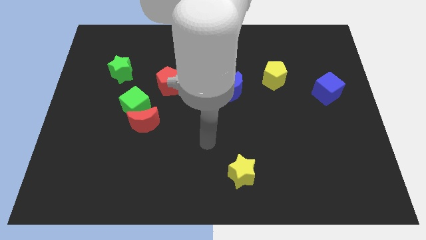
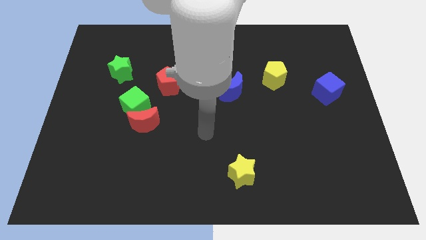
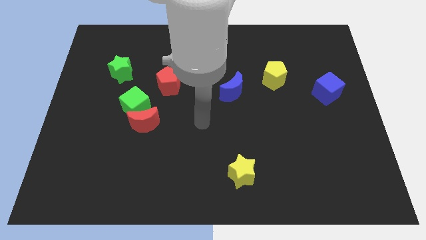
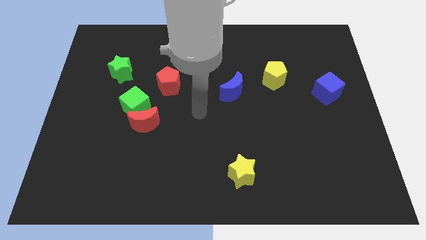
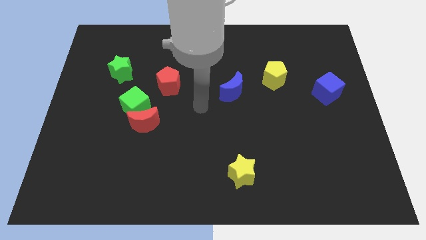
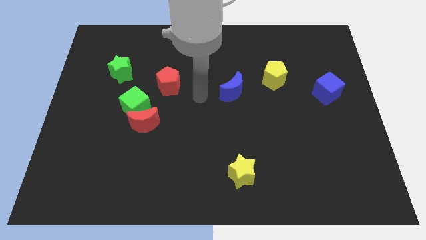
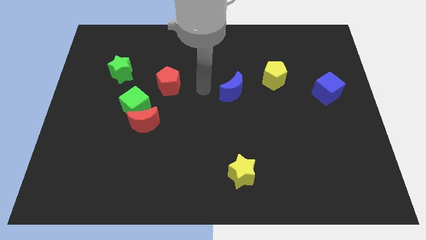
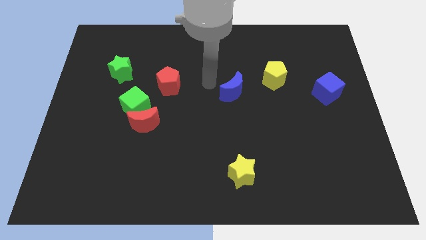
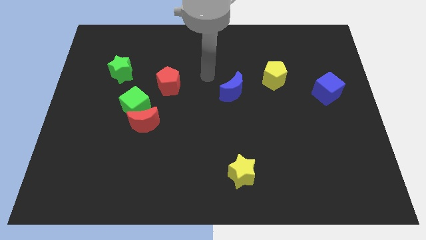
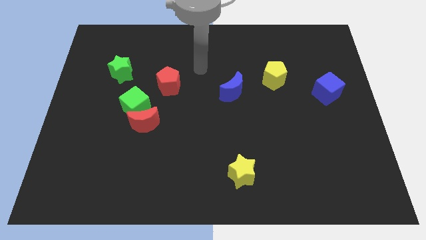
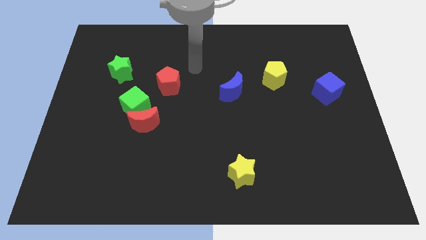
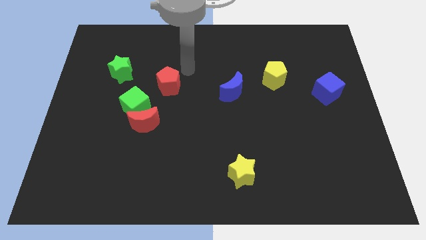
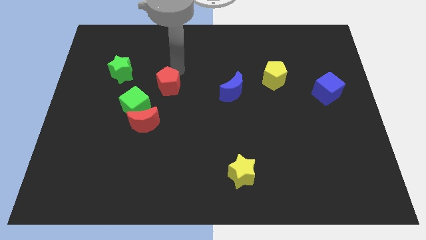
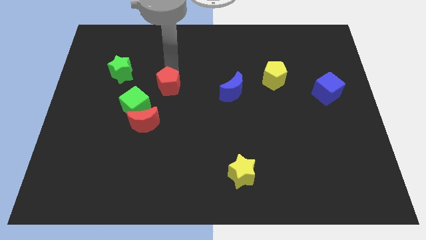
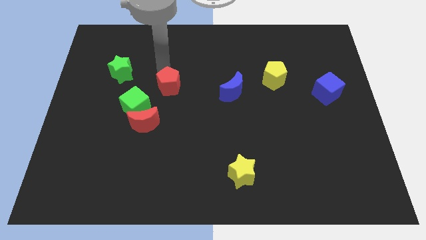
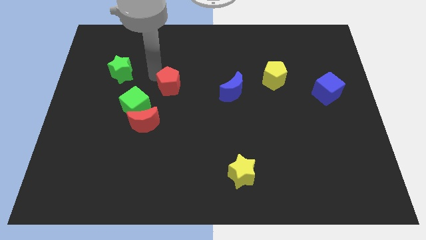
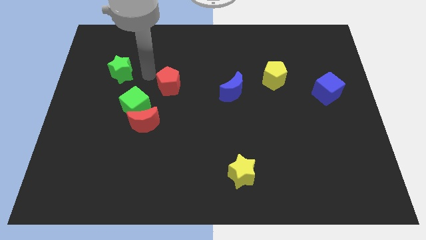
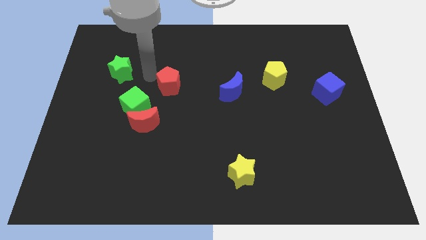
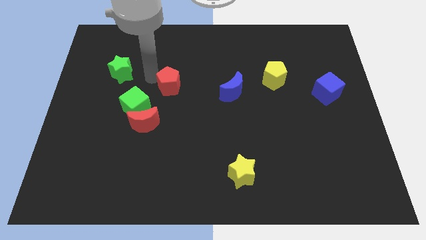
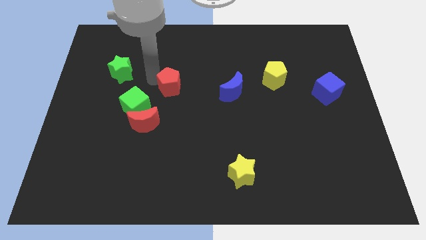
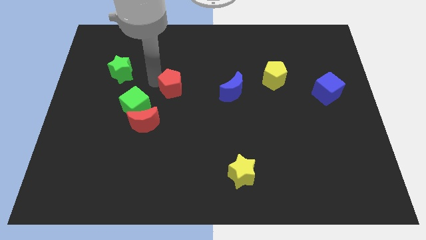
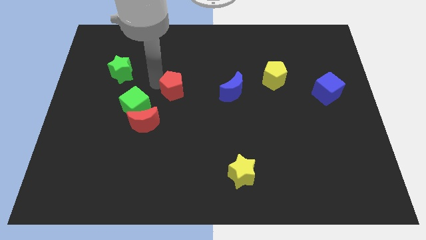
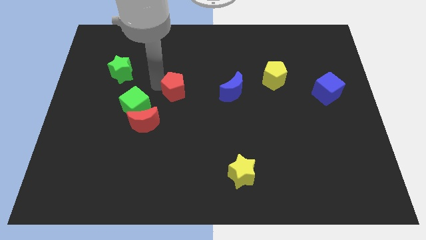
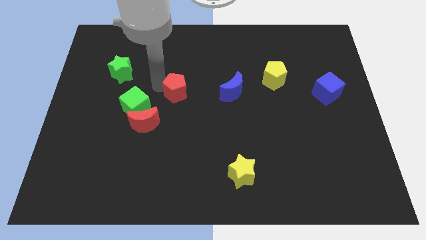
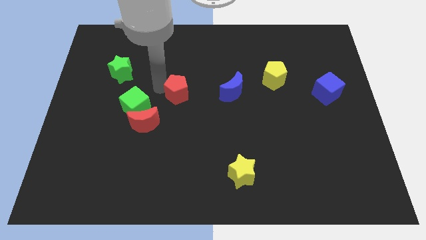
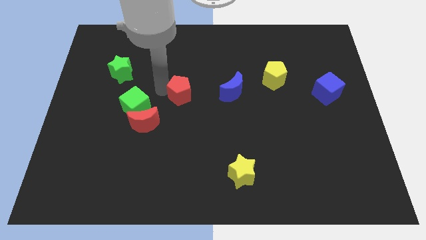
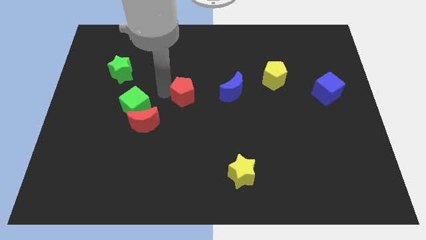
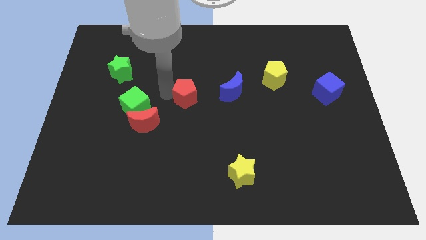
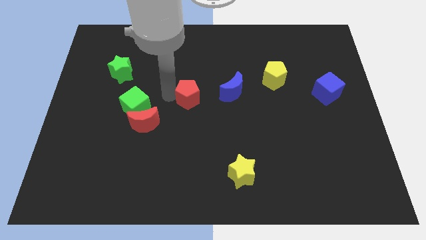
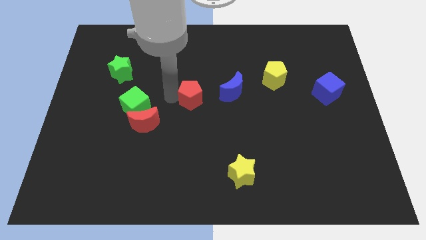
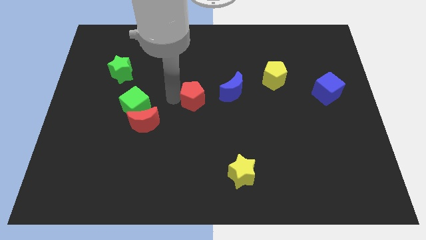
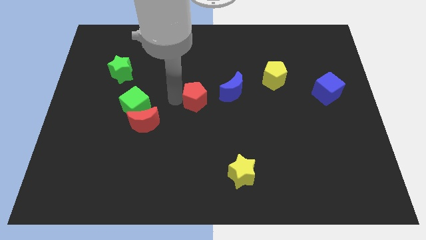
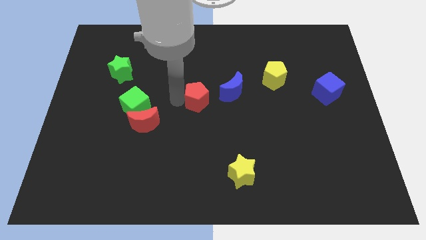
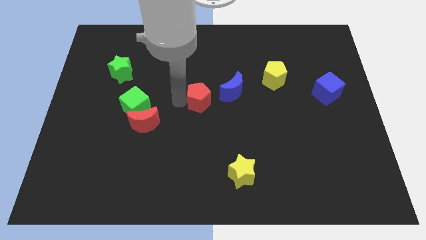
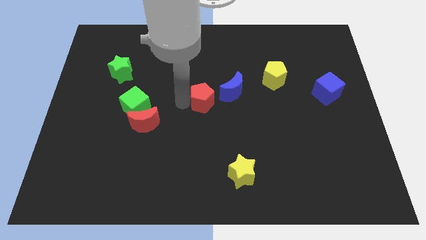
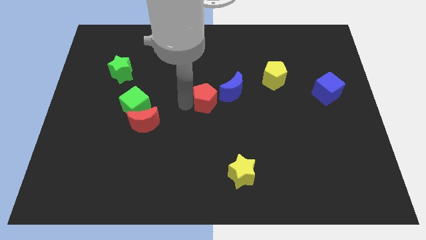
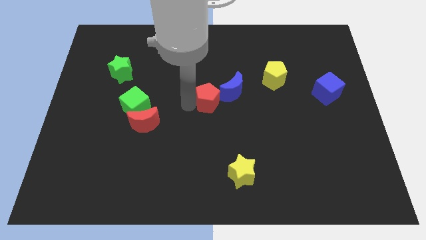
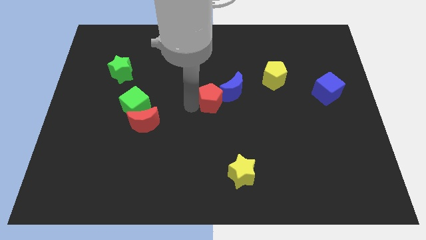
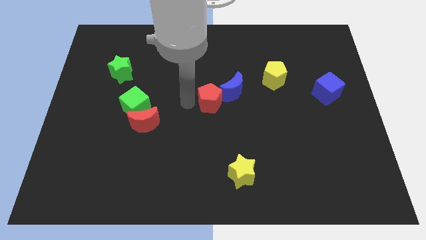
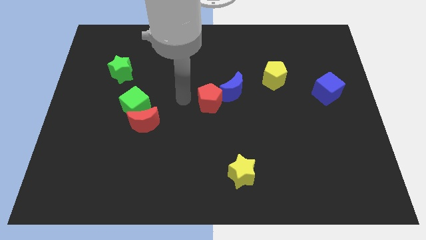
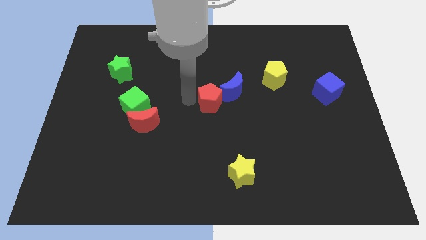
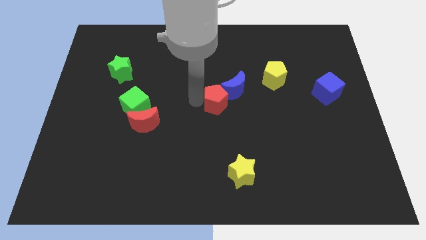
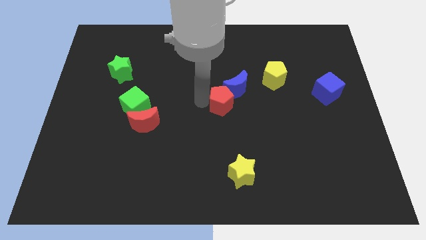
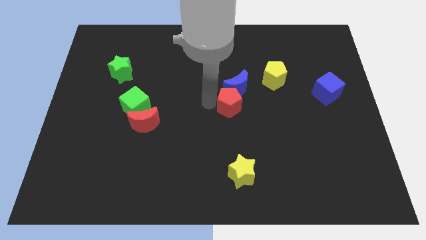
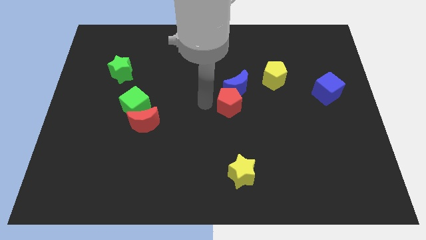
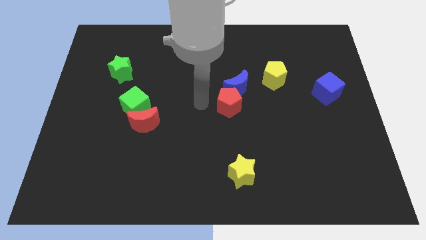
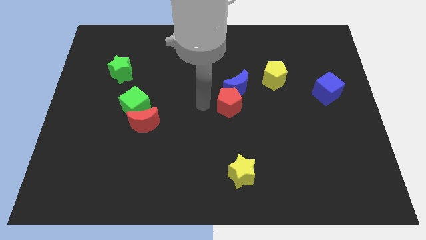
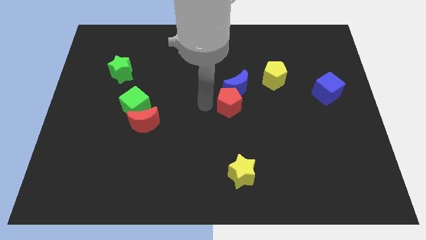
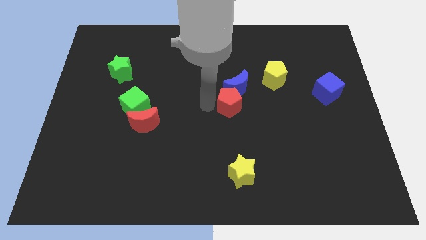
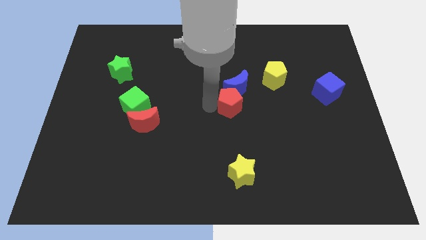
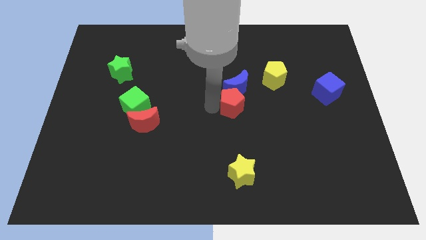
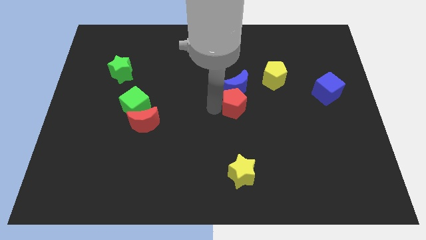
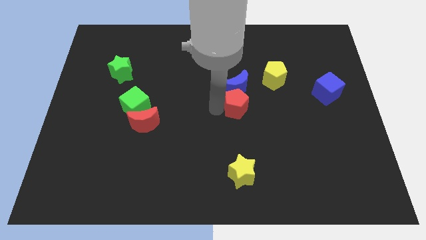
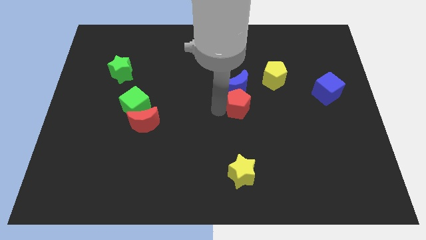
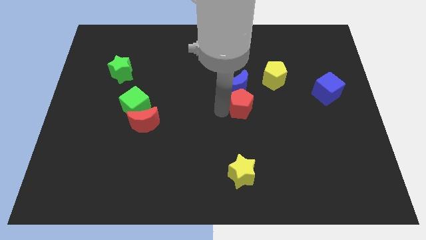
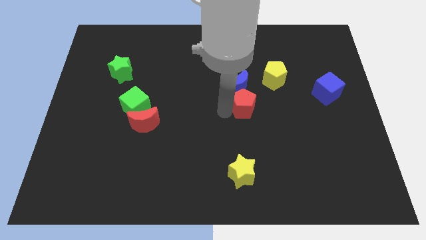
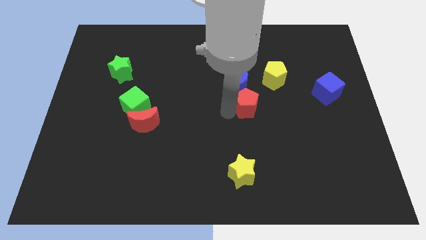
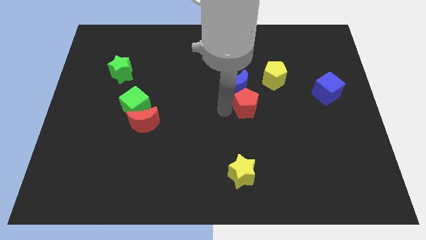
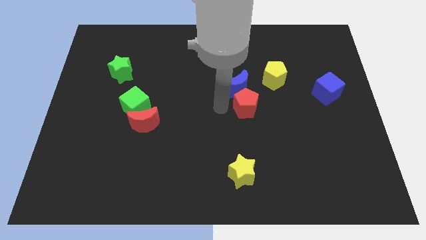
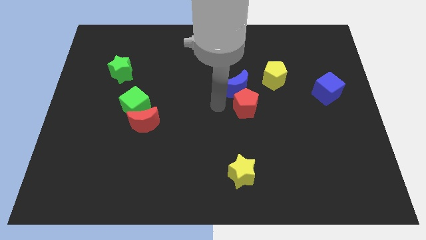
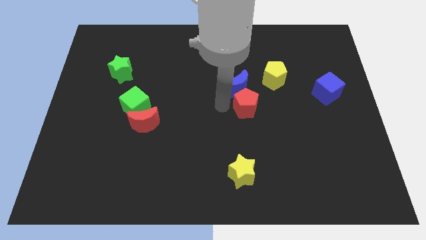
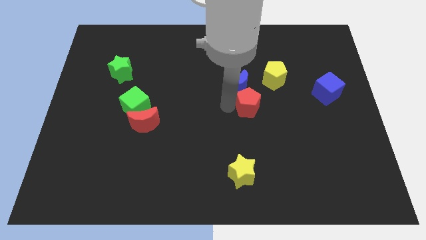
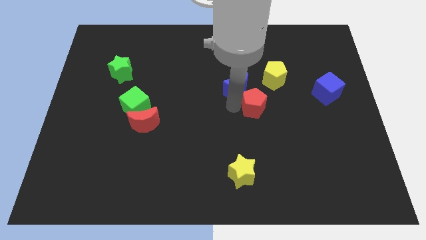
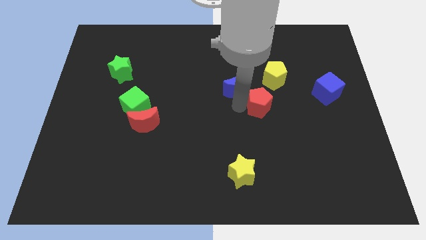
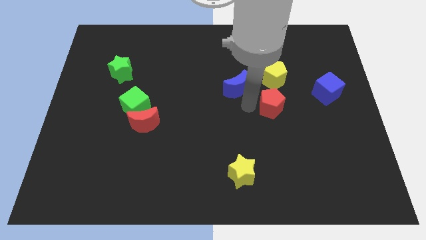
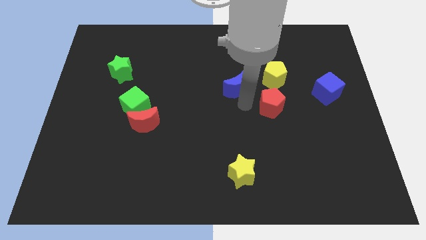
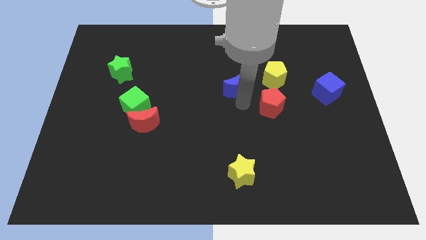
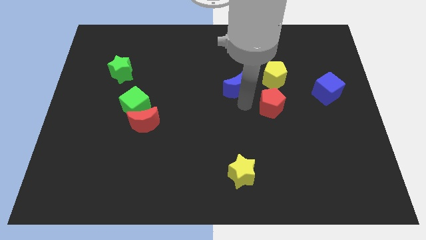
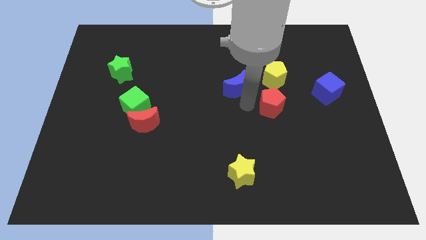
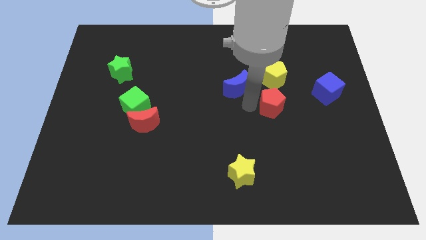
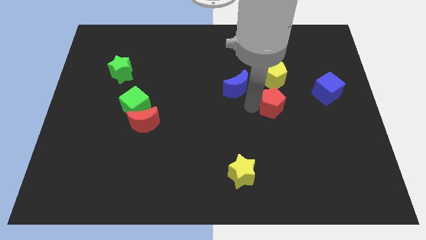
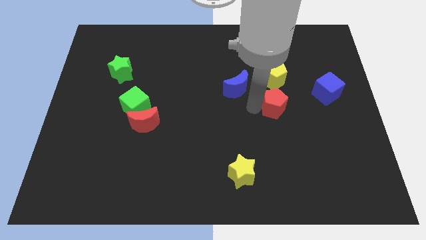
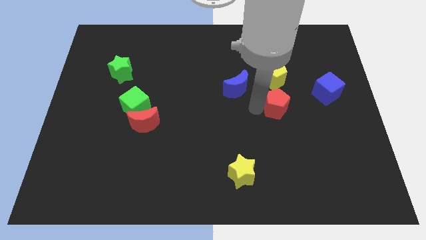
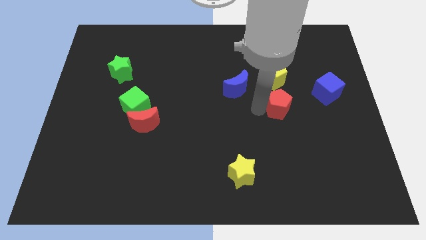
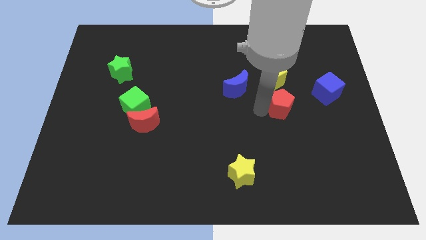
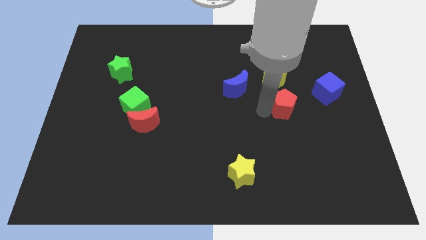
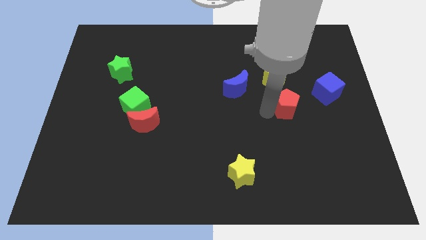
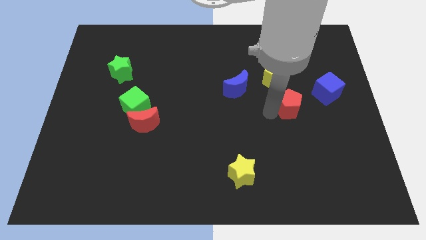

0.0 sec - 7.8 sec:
slide the red pentagon to the bottom left of the blue cube
